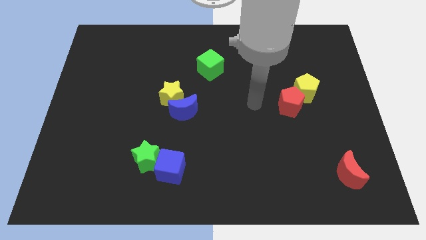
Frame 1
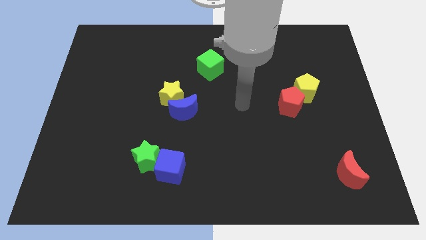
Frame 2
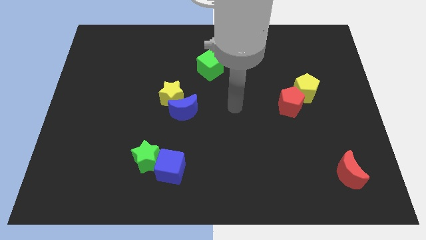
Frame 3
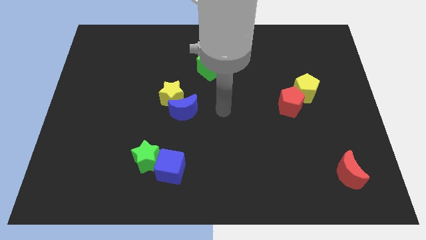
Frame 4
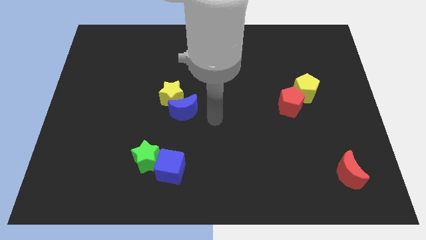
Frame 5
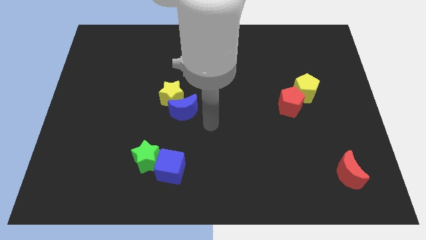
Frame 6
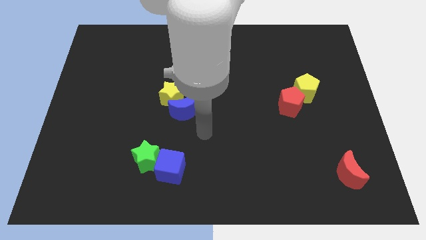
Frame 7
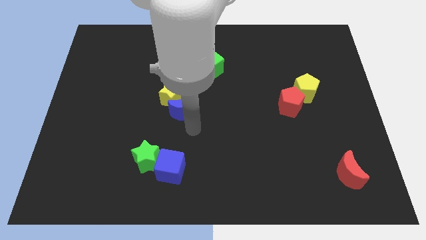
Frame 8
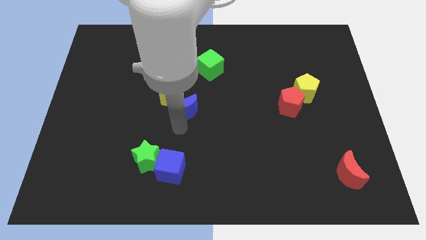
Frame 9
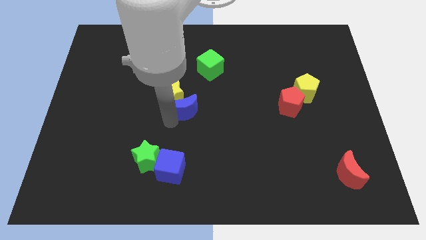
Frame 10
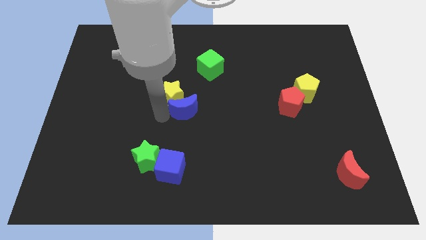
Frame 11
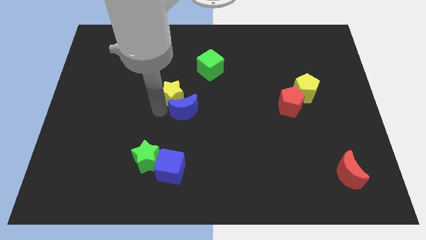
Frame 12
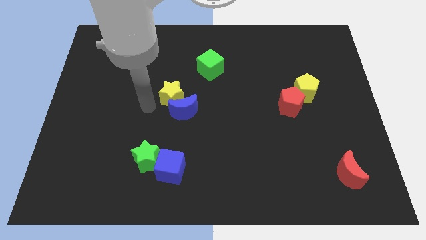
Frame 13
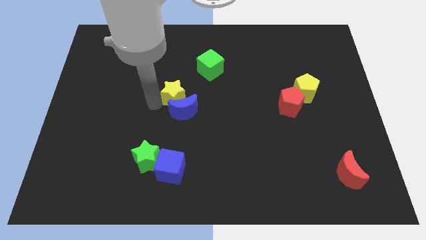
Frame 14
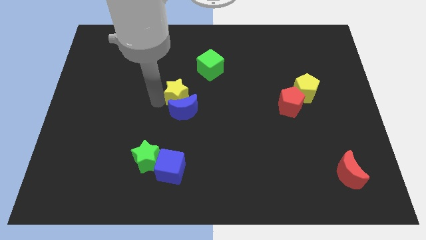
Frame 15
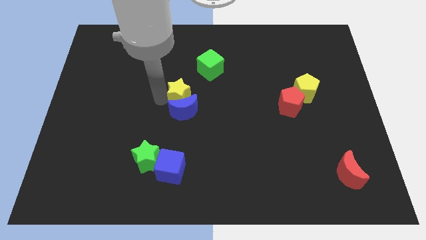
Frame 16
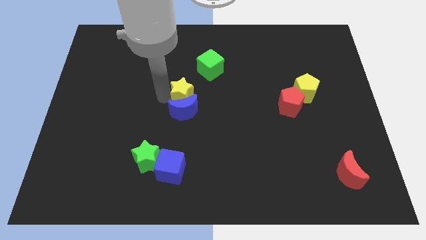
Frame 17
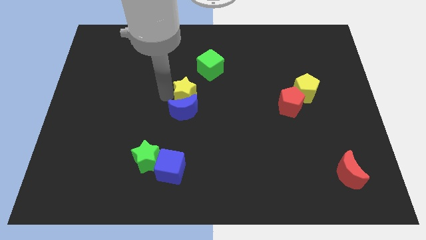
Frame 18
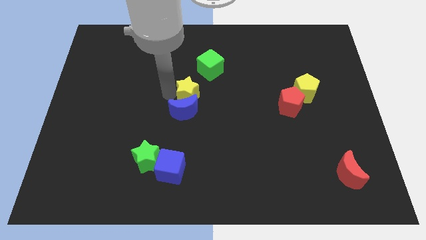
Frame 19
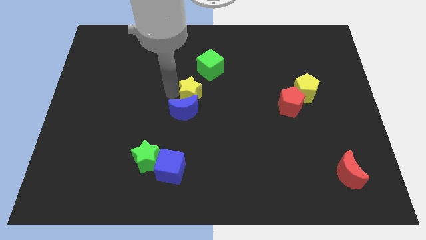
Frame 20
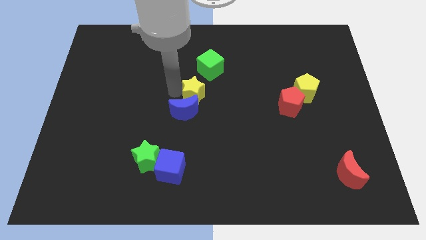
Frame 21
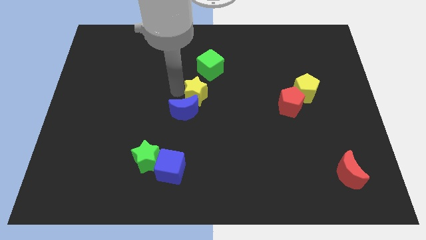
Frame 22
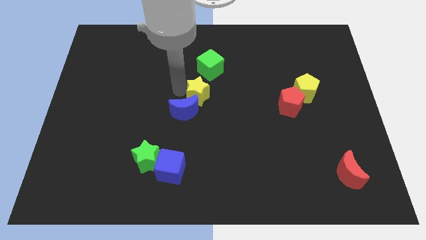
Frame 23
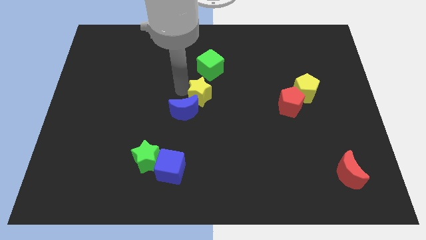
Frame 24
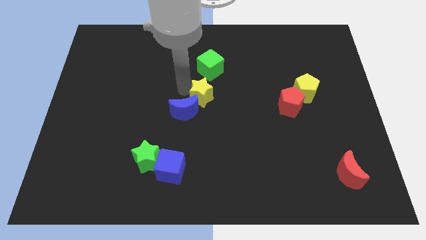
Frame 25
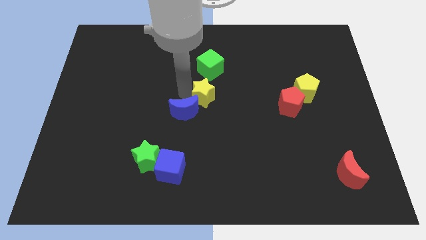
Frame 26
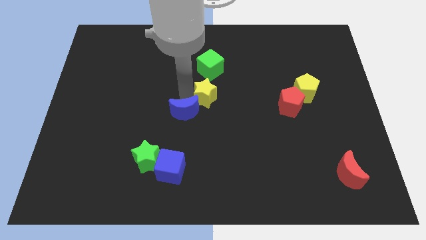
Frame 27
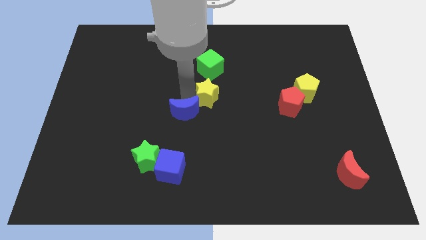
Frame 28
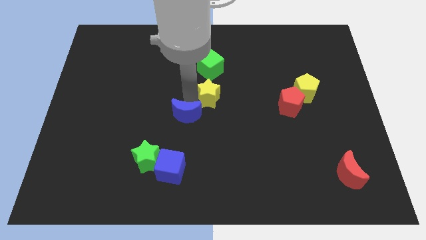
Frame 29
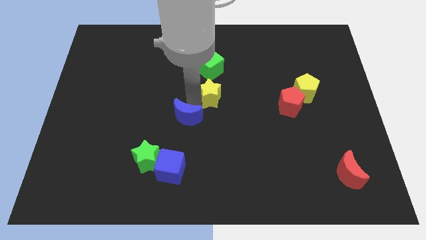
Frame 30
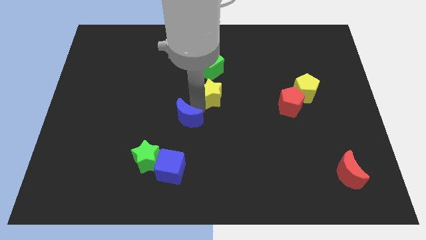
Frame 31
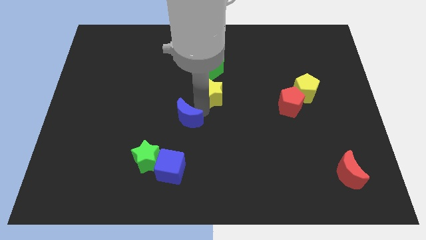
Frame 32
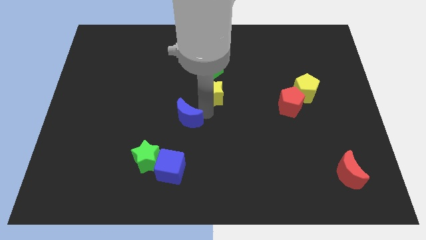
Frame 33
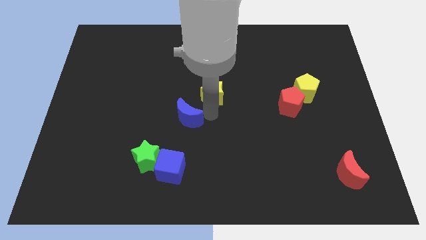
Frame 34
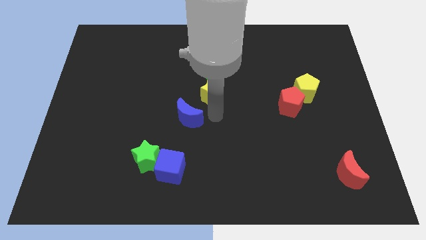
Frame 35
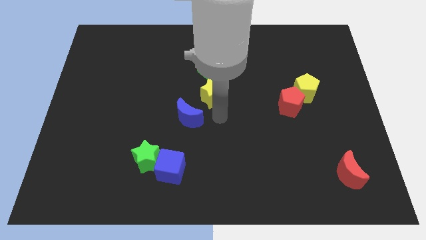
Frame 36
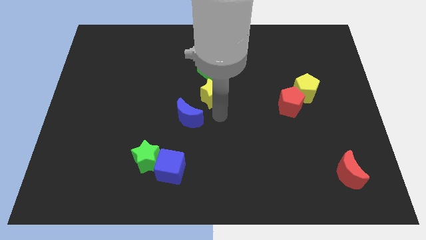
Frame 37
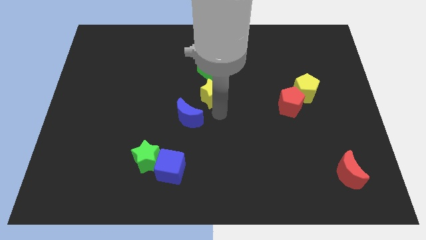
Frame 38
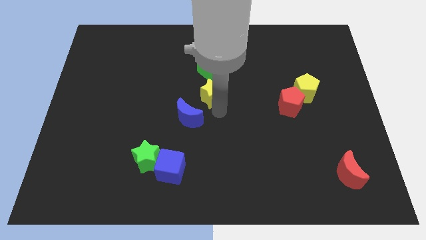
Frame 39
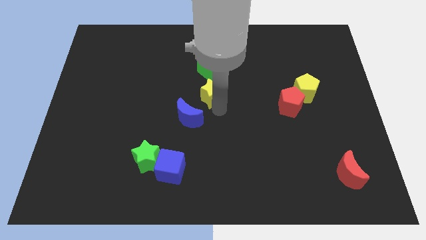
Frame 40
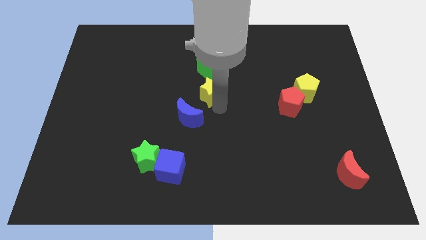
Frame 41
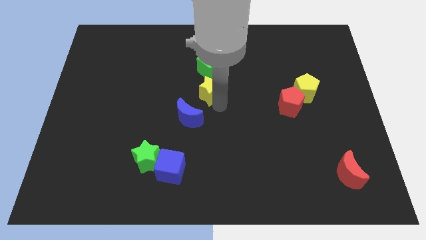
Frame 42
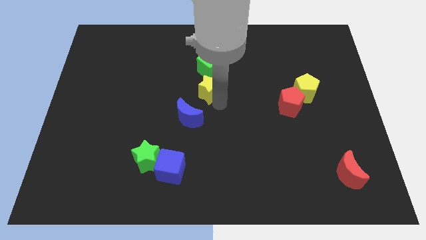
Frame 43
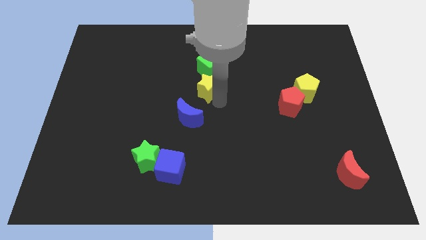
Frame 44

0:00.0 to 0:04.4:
move the yellow star upwards and to the right diagonally a bit

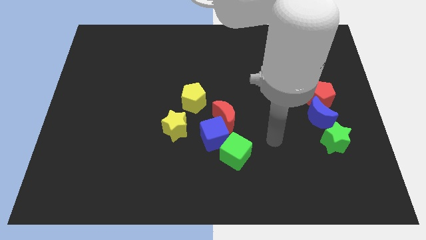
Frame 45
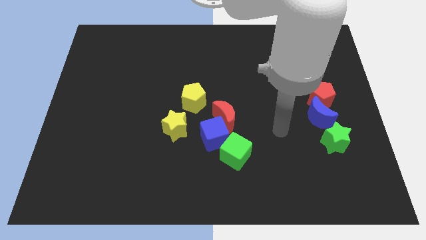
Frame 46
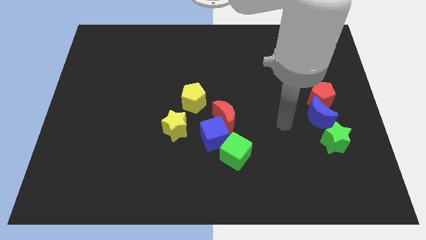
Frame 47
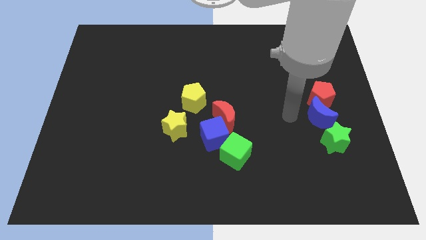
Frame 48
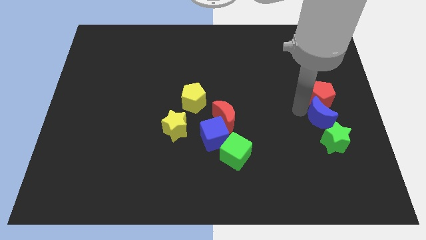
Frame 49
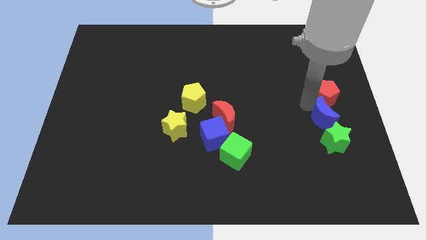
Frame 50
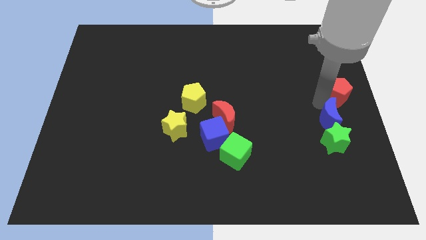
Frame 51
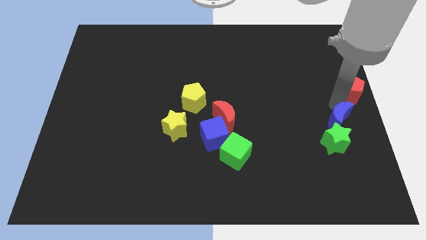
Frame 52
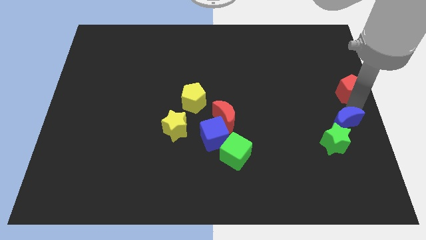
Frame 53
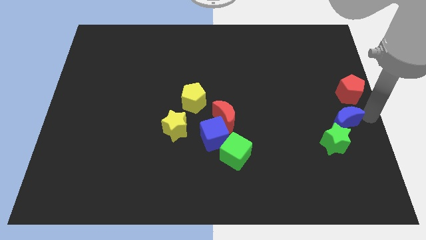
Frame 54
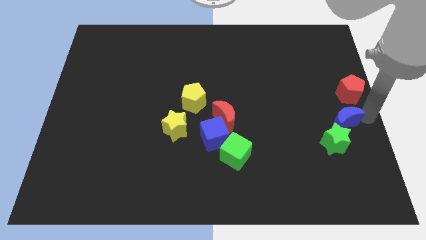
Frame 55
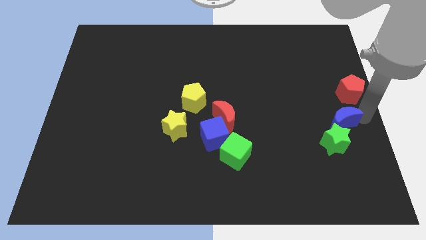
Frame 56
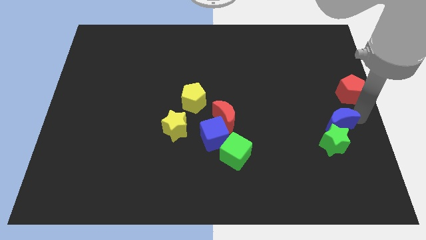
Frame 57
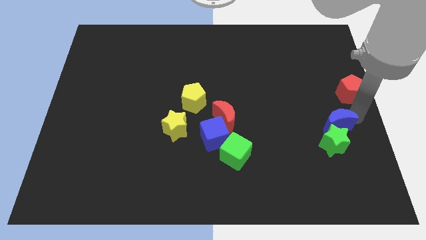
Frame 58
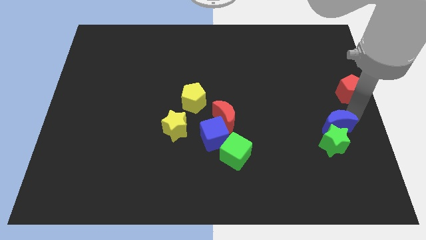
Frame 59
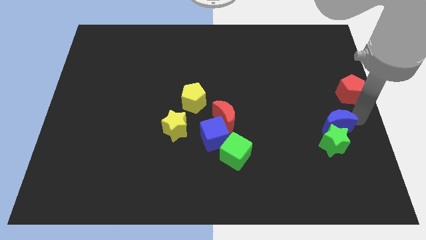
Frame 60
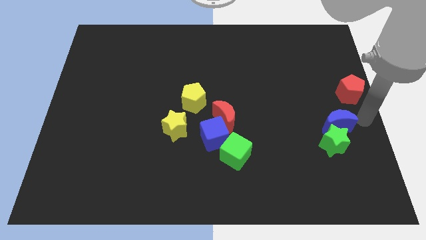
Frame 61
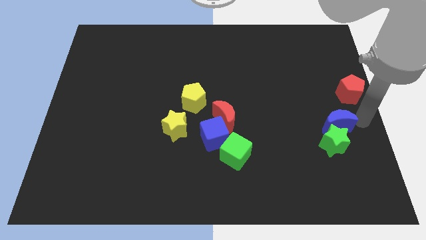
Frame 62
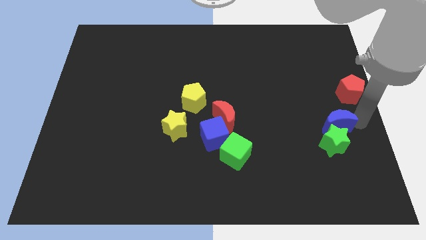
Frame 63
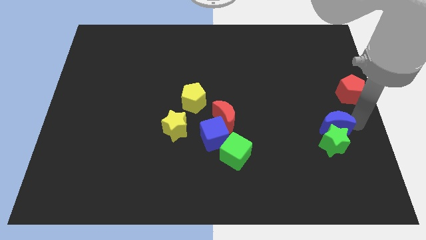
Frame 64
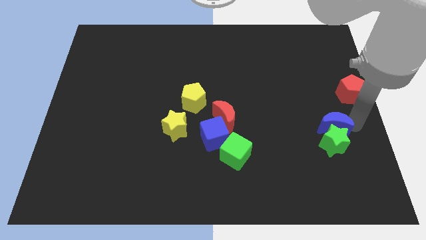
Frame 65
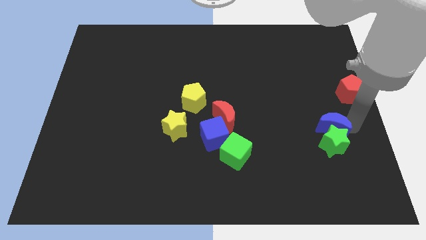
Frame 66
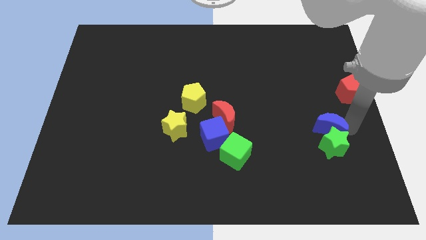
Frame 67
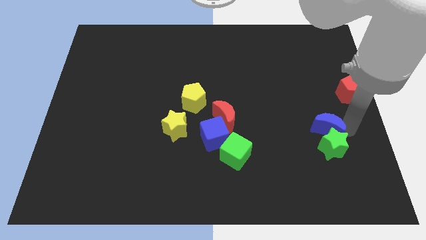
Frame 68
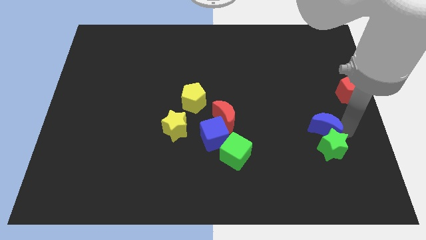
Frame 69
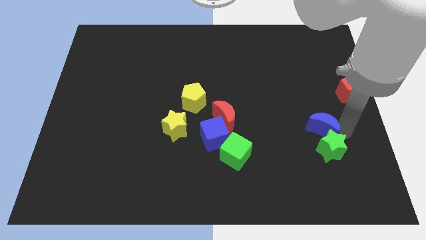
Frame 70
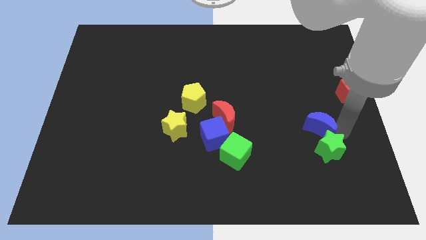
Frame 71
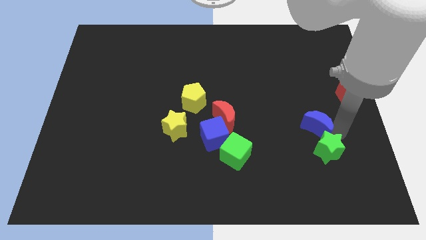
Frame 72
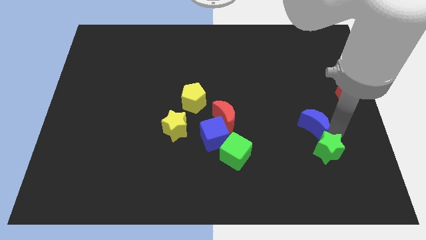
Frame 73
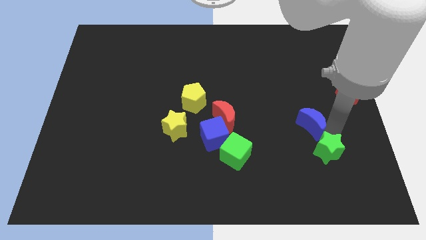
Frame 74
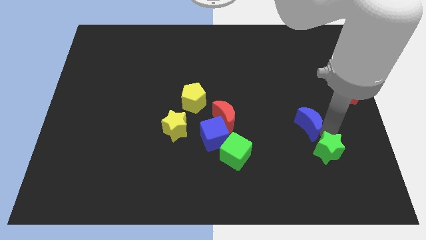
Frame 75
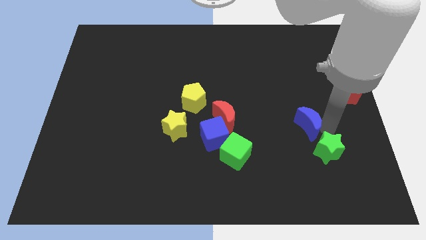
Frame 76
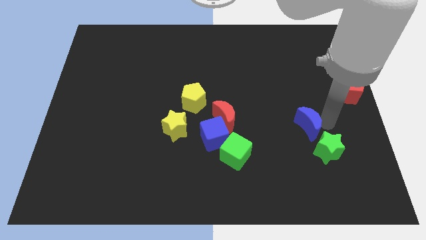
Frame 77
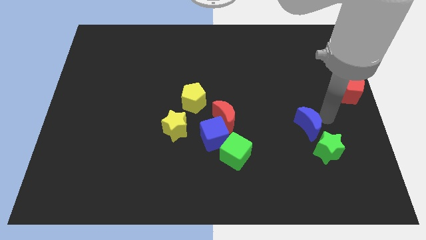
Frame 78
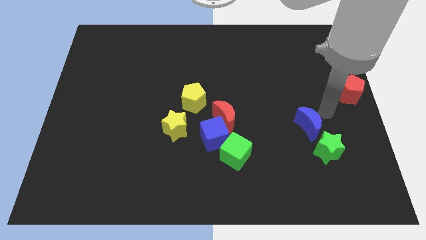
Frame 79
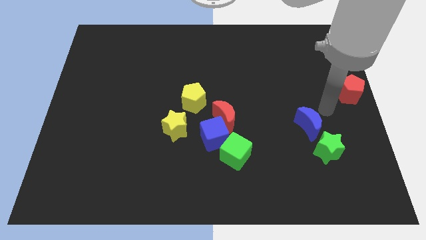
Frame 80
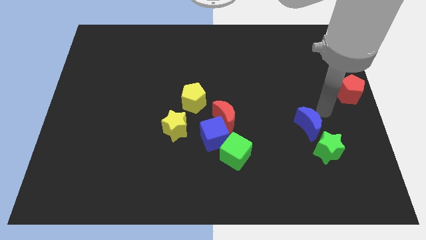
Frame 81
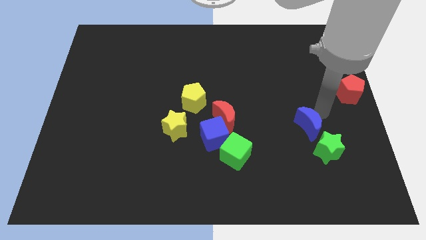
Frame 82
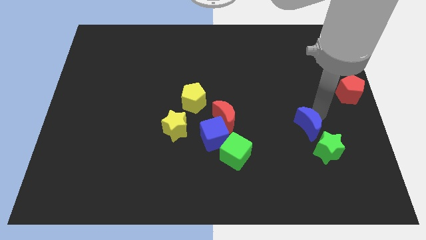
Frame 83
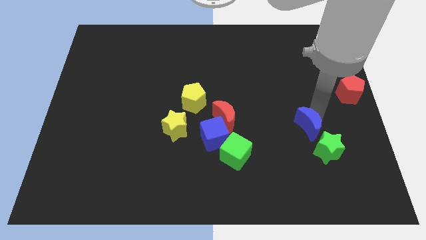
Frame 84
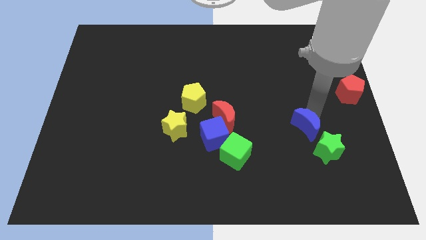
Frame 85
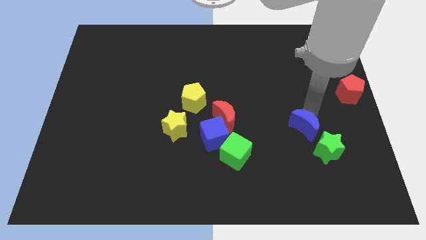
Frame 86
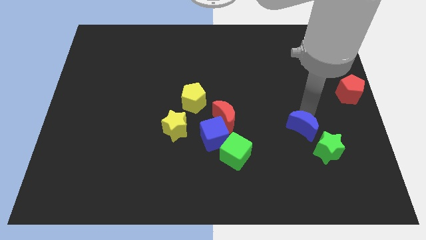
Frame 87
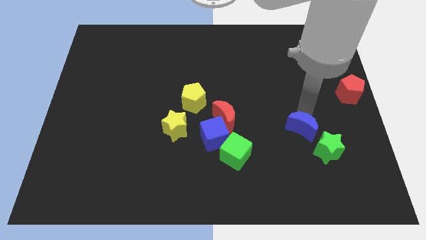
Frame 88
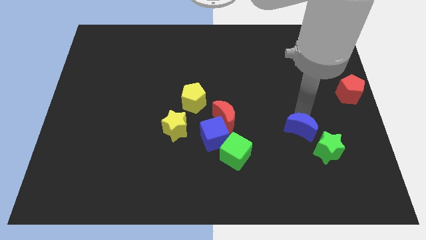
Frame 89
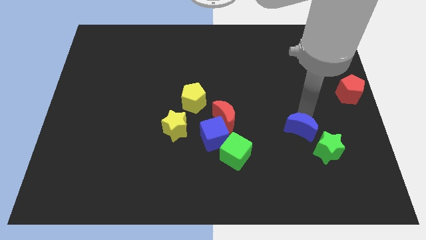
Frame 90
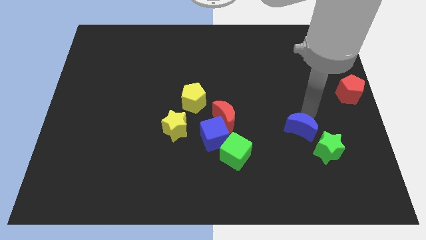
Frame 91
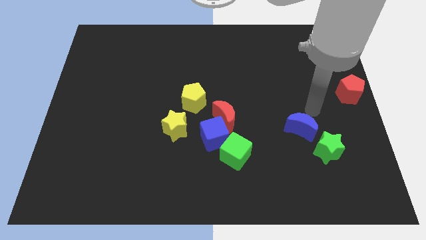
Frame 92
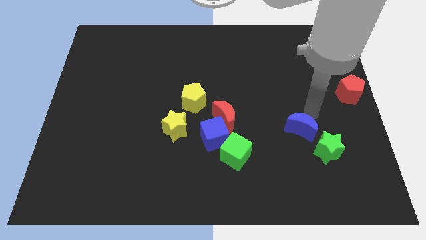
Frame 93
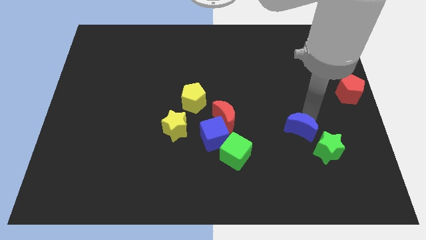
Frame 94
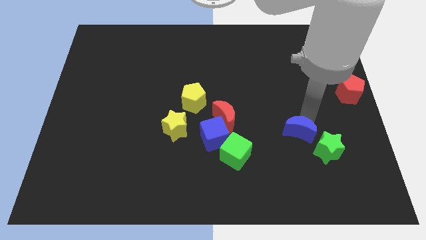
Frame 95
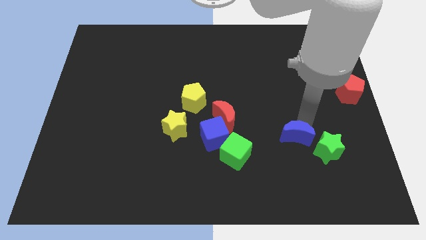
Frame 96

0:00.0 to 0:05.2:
move the blue moon downwards and then to the left a little
